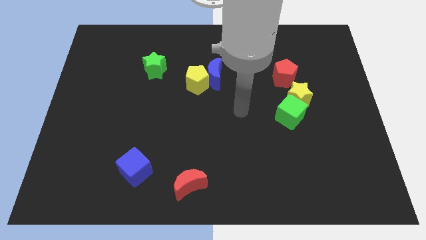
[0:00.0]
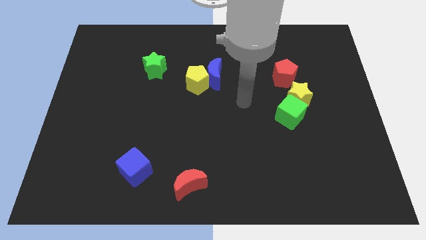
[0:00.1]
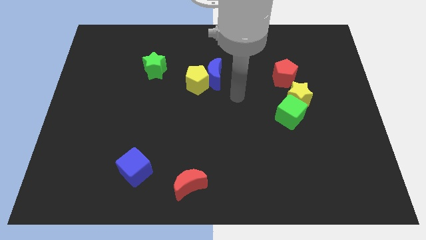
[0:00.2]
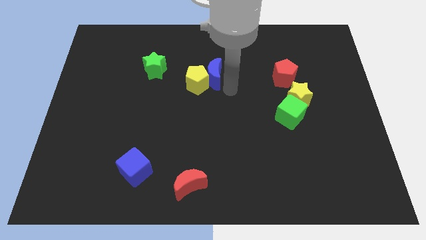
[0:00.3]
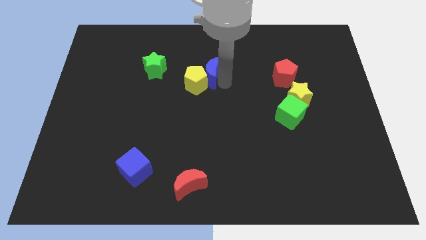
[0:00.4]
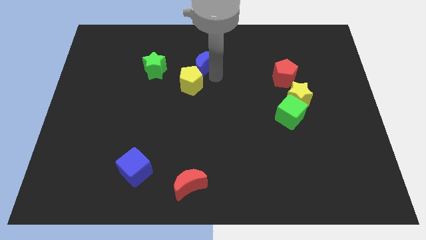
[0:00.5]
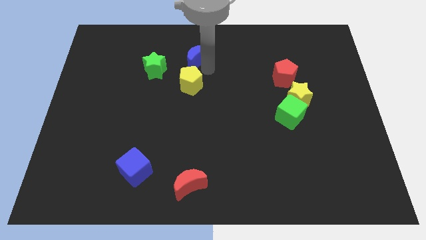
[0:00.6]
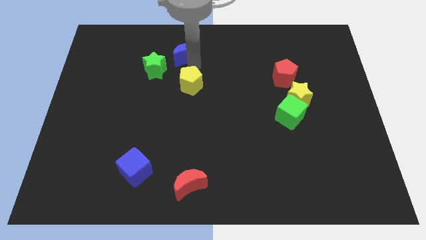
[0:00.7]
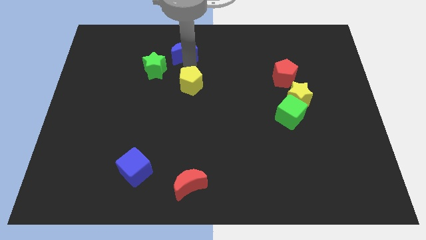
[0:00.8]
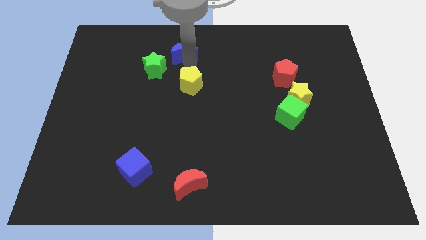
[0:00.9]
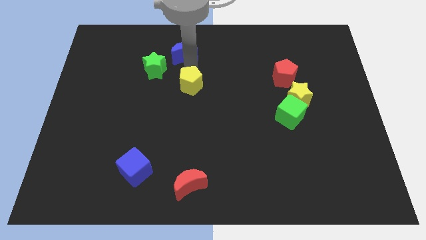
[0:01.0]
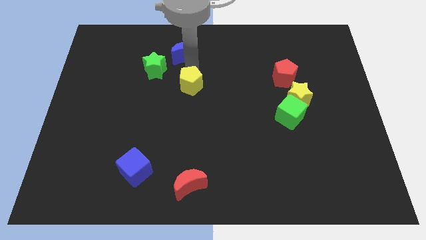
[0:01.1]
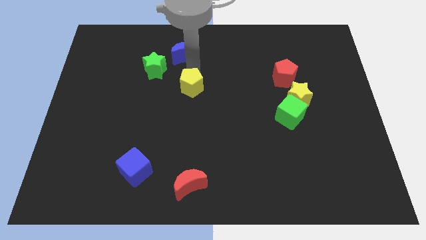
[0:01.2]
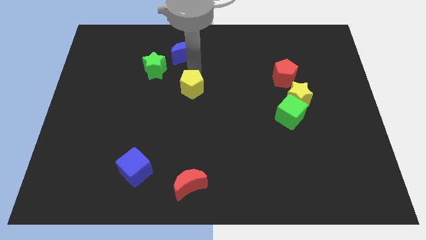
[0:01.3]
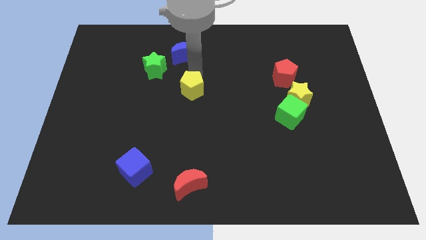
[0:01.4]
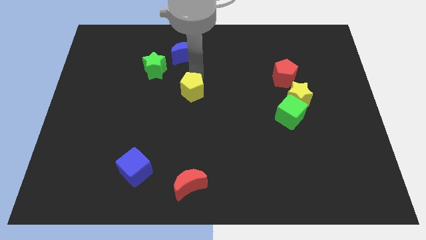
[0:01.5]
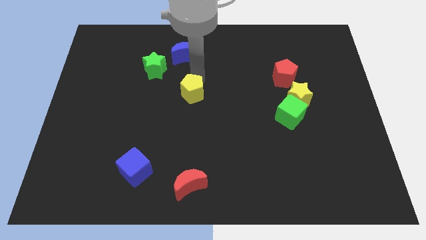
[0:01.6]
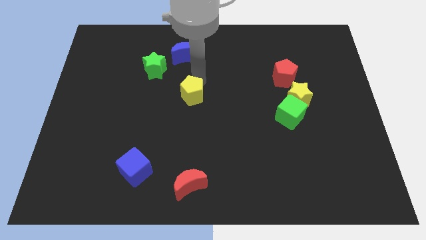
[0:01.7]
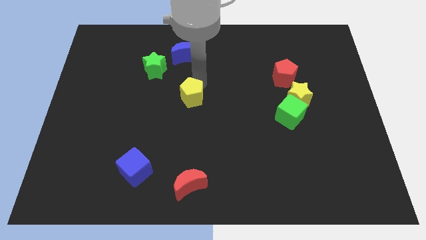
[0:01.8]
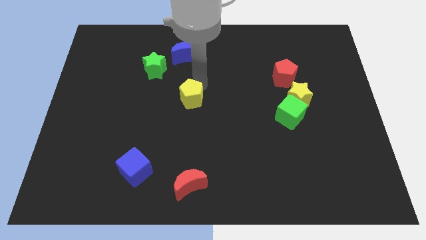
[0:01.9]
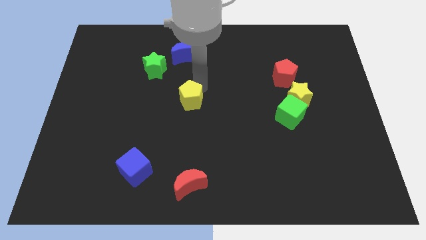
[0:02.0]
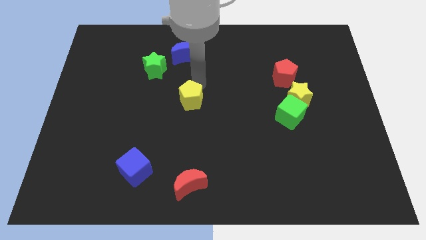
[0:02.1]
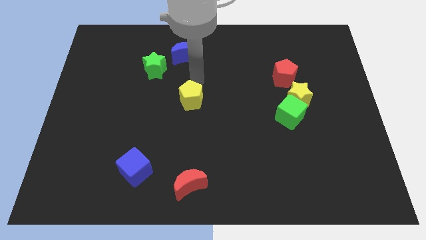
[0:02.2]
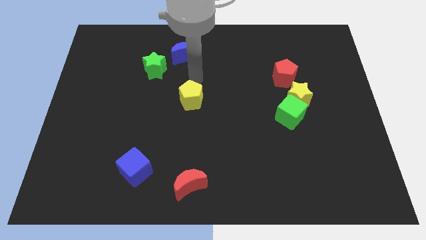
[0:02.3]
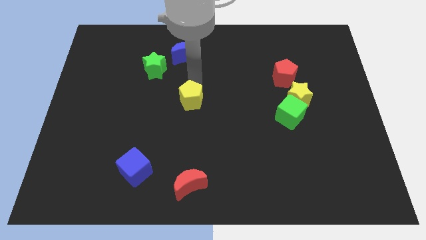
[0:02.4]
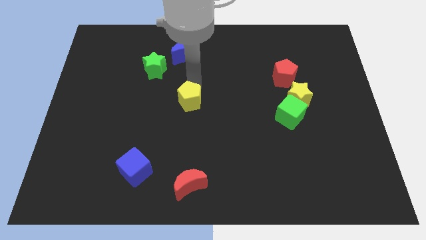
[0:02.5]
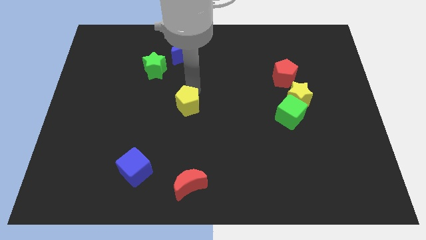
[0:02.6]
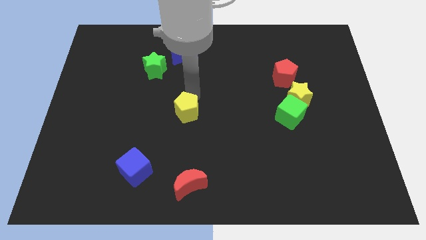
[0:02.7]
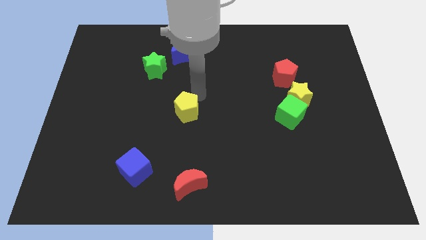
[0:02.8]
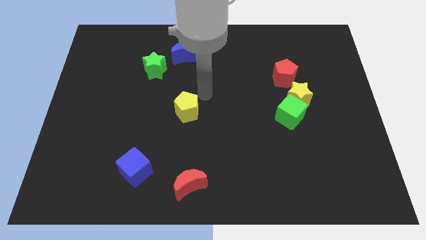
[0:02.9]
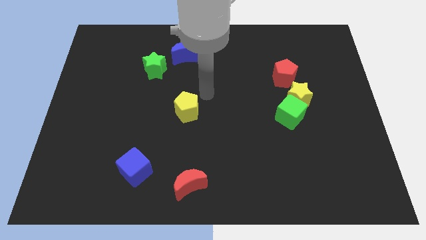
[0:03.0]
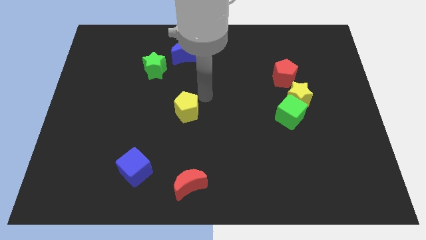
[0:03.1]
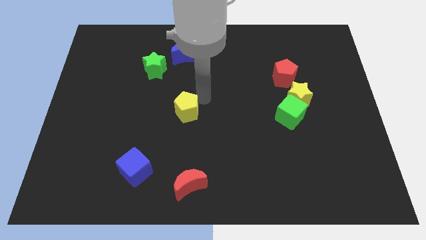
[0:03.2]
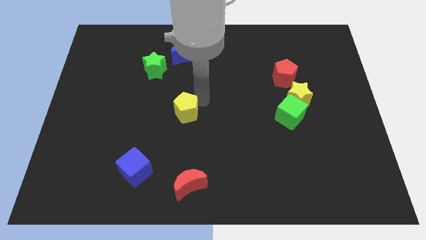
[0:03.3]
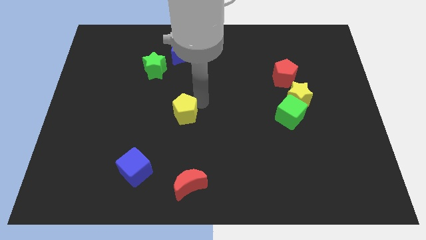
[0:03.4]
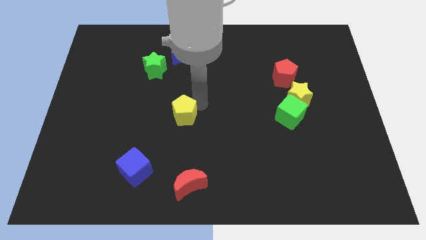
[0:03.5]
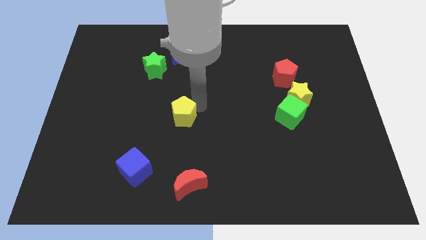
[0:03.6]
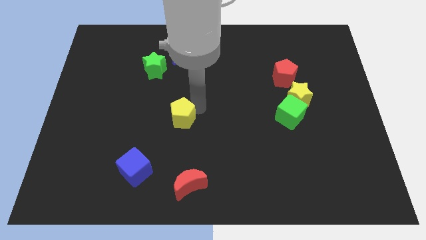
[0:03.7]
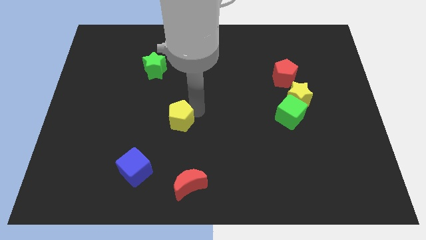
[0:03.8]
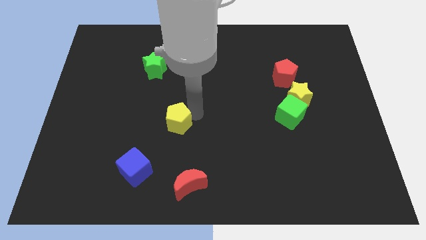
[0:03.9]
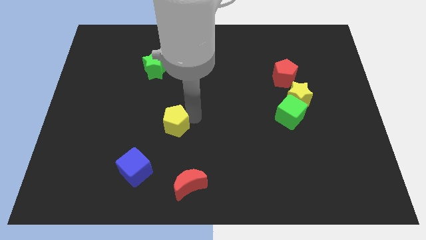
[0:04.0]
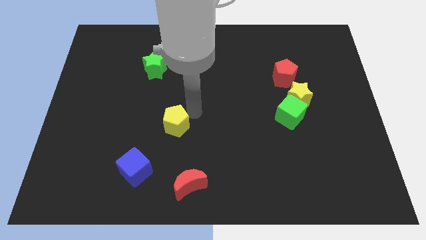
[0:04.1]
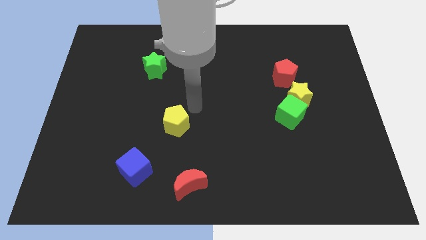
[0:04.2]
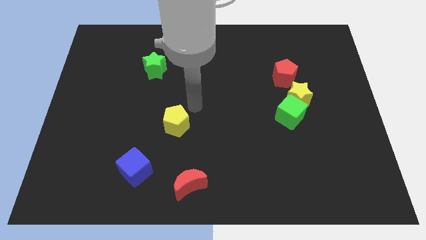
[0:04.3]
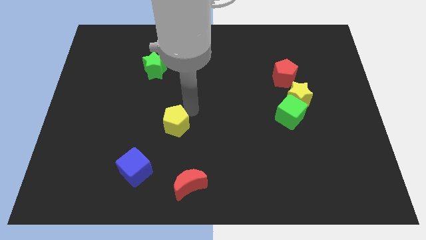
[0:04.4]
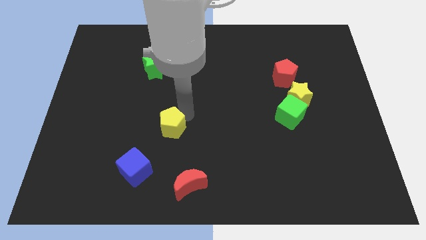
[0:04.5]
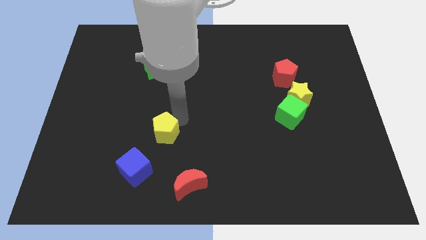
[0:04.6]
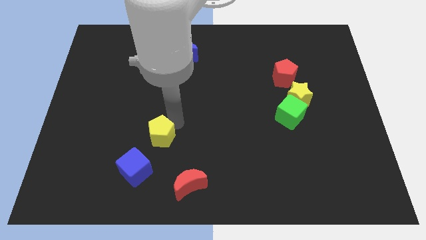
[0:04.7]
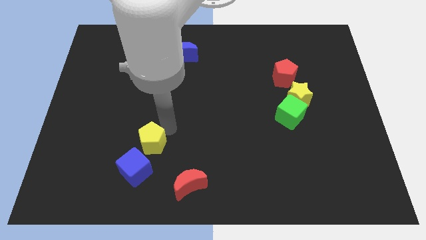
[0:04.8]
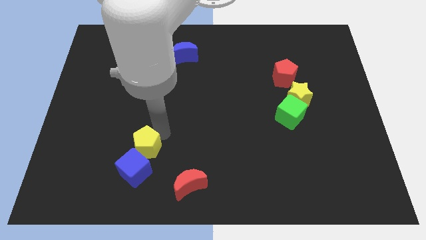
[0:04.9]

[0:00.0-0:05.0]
slide the yellow pentagon next to the blue cube

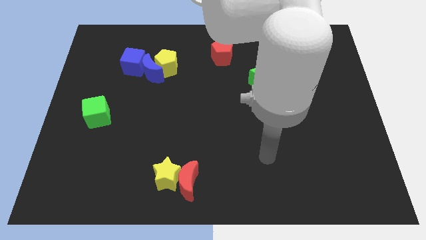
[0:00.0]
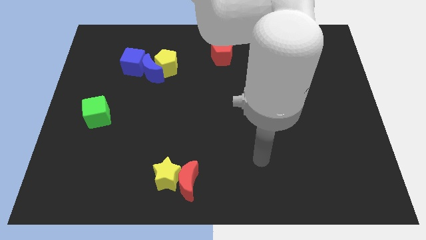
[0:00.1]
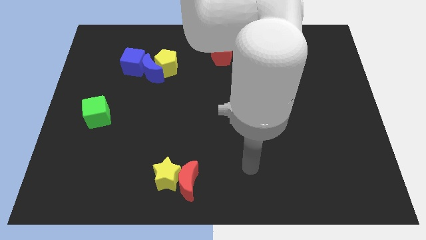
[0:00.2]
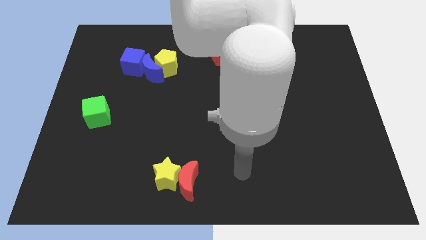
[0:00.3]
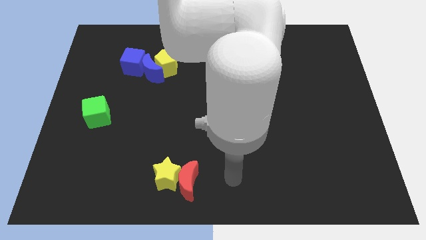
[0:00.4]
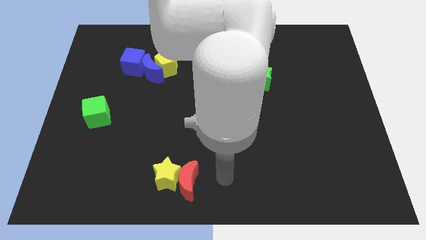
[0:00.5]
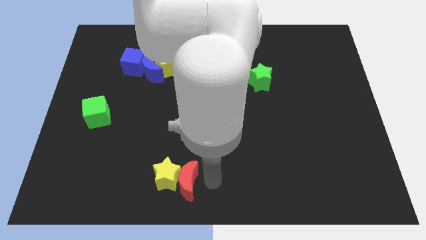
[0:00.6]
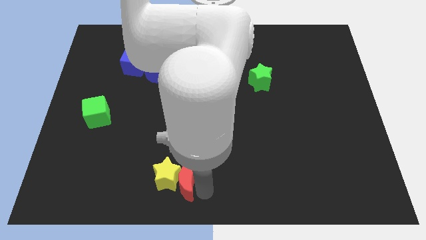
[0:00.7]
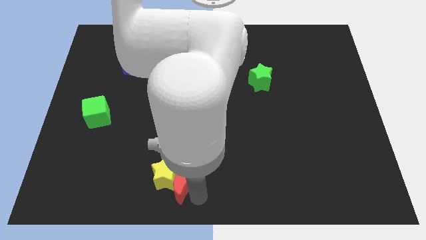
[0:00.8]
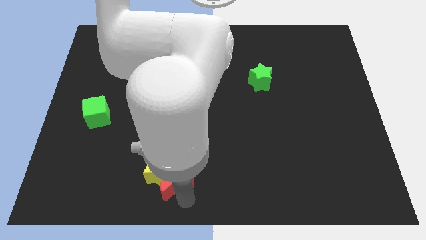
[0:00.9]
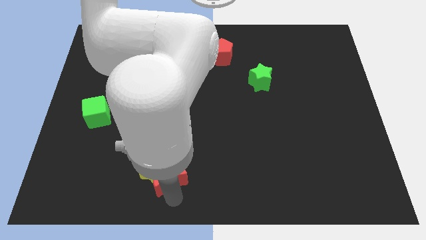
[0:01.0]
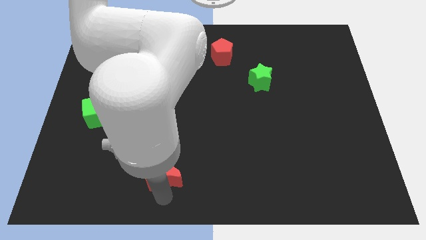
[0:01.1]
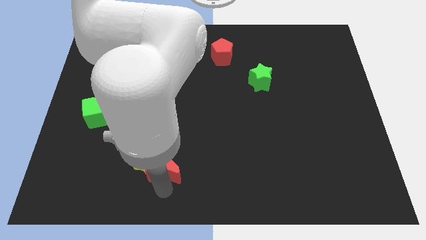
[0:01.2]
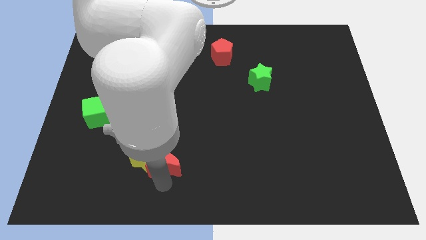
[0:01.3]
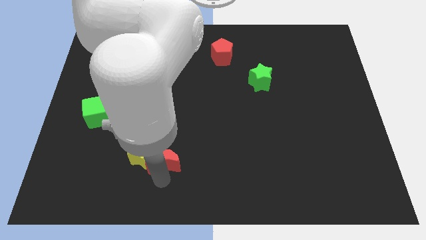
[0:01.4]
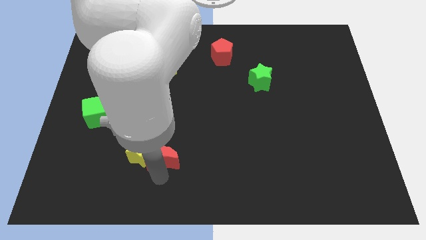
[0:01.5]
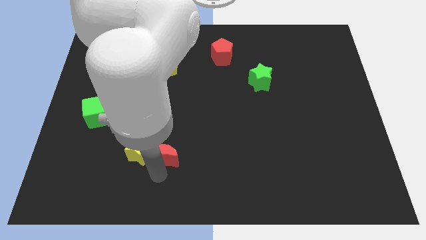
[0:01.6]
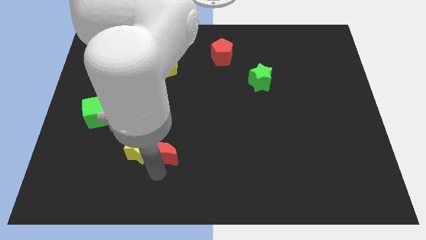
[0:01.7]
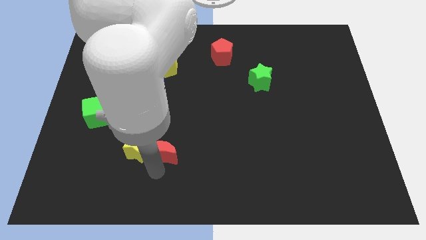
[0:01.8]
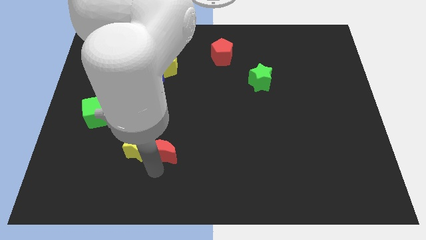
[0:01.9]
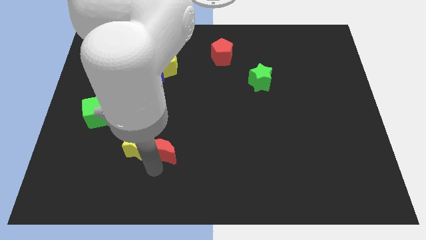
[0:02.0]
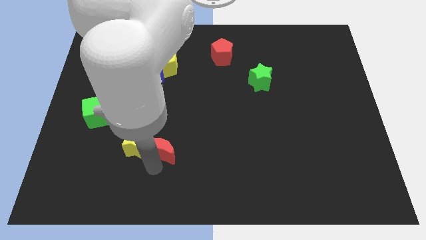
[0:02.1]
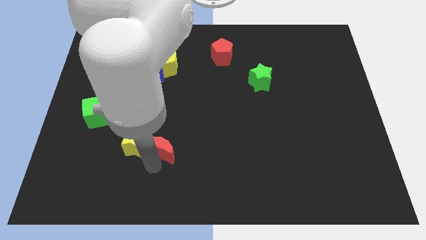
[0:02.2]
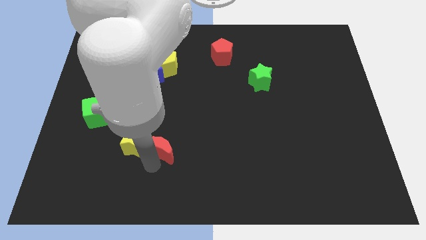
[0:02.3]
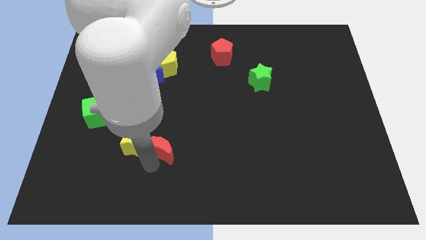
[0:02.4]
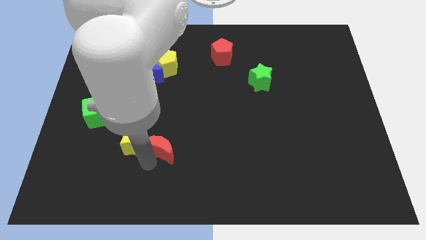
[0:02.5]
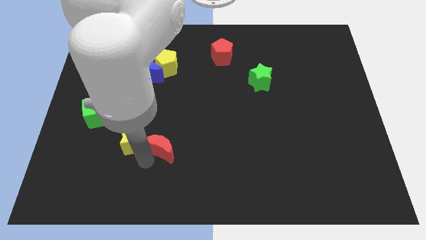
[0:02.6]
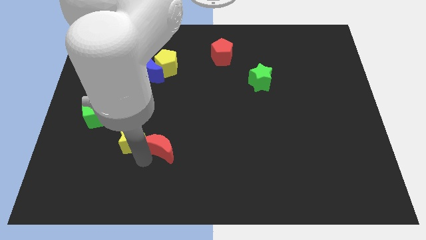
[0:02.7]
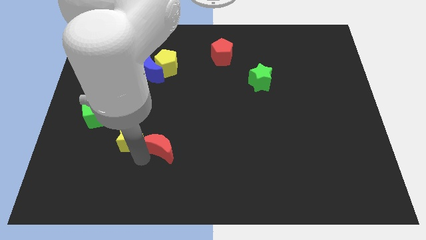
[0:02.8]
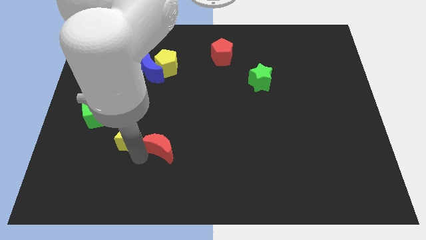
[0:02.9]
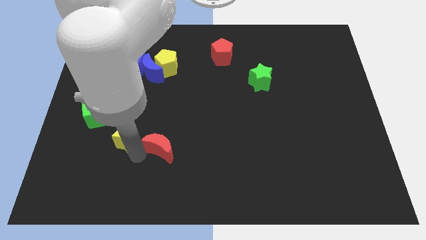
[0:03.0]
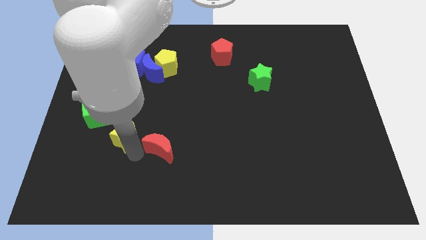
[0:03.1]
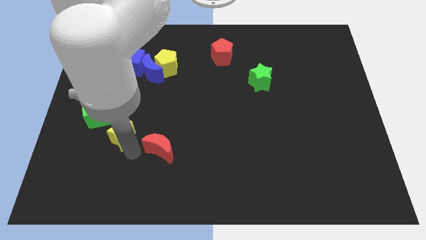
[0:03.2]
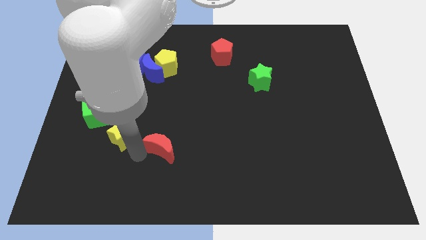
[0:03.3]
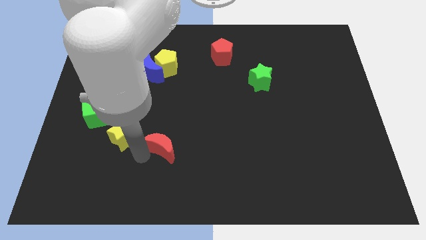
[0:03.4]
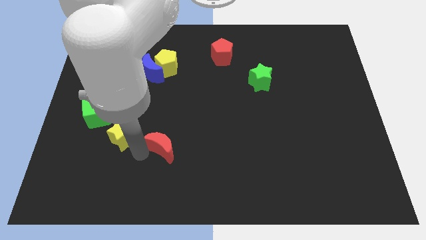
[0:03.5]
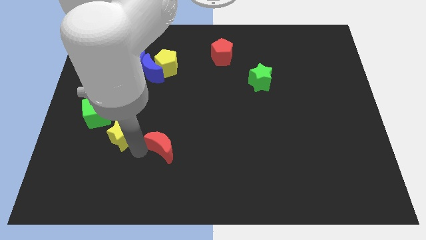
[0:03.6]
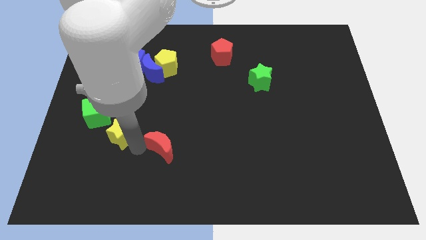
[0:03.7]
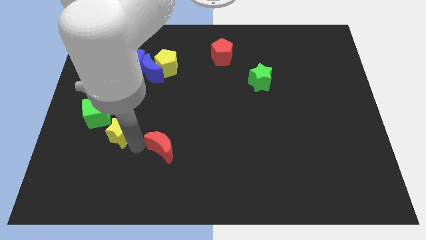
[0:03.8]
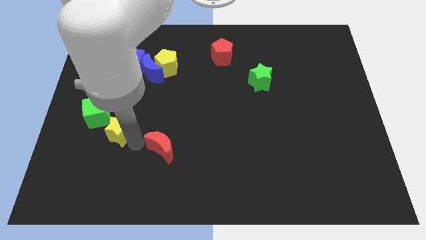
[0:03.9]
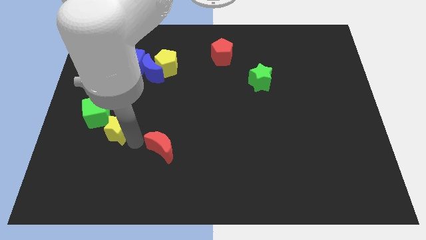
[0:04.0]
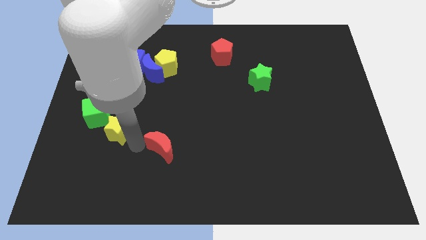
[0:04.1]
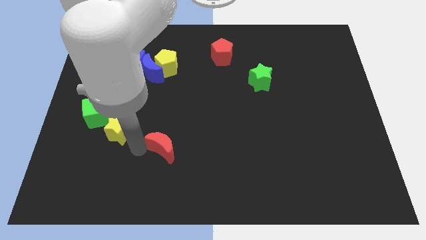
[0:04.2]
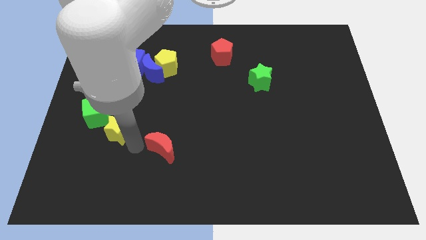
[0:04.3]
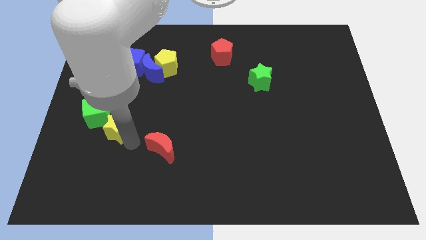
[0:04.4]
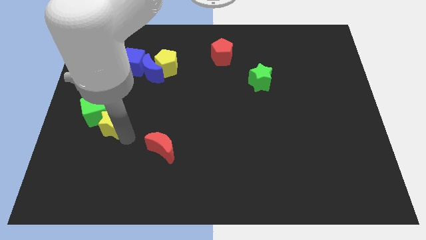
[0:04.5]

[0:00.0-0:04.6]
put the yellow star next to the green cube
